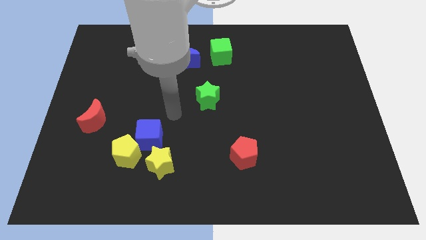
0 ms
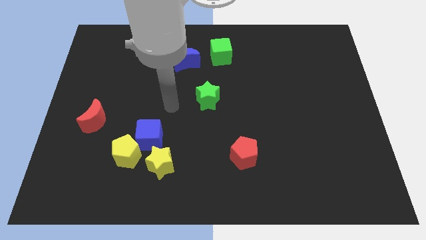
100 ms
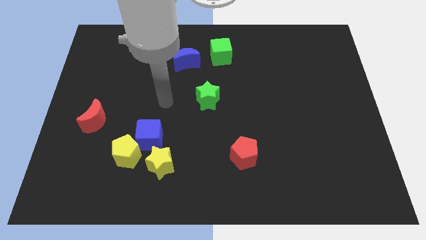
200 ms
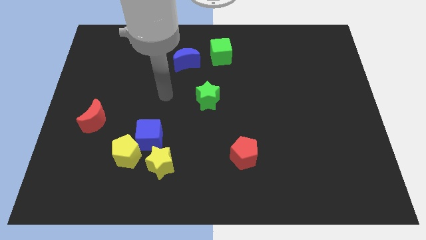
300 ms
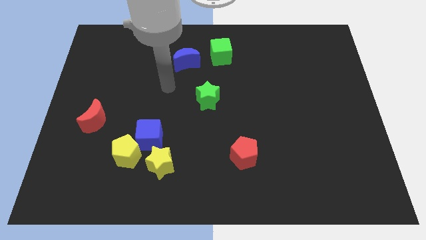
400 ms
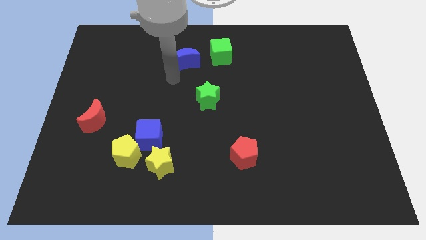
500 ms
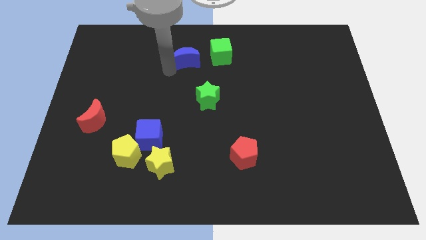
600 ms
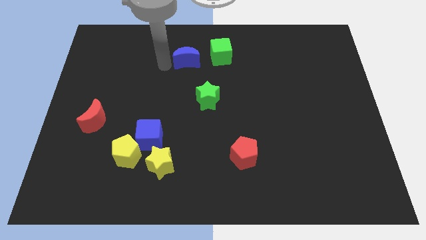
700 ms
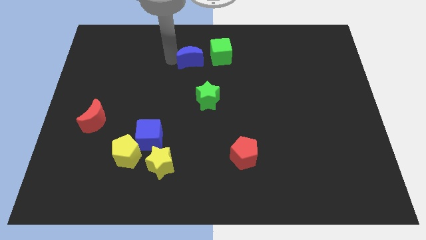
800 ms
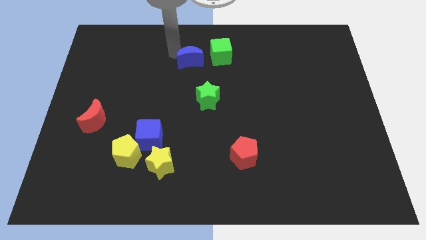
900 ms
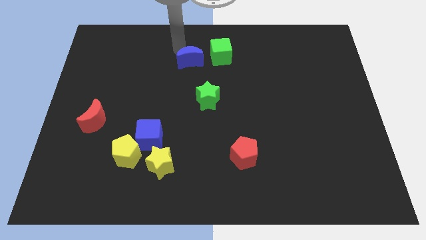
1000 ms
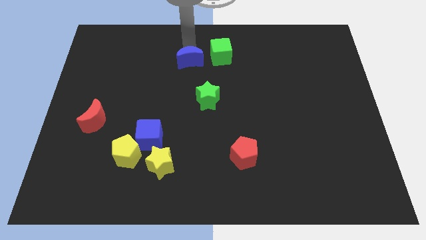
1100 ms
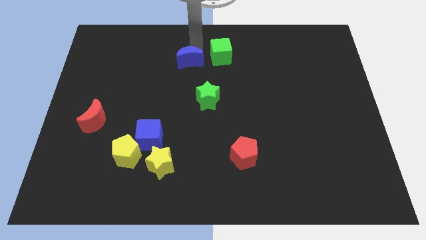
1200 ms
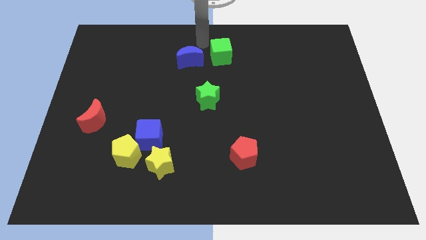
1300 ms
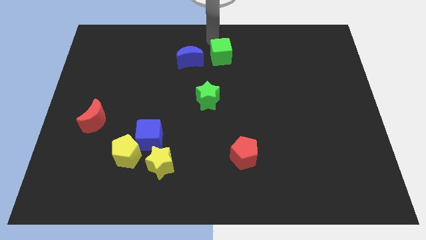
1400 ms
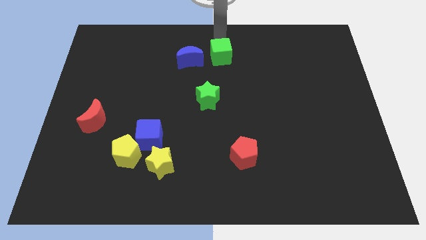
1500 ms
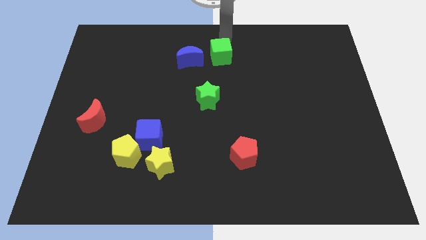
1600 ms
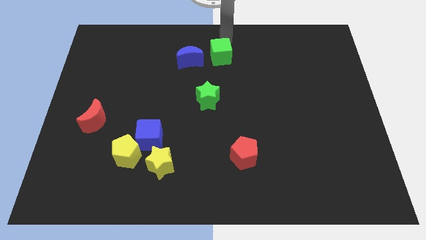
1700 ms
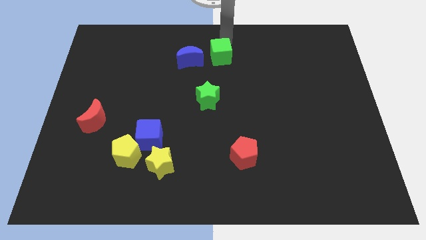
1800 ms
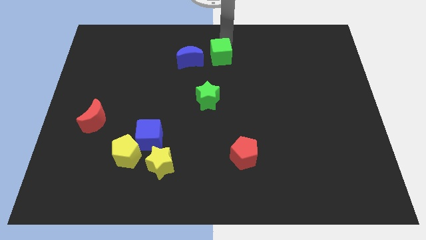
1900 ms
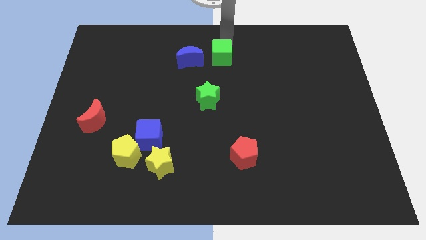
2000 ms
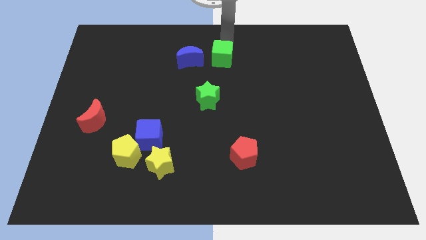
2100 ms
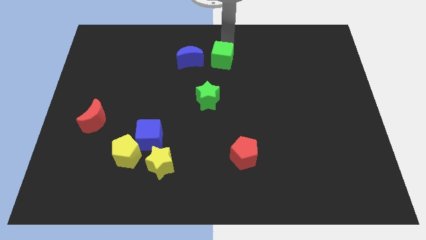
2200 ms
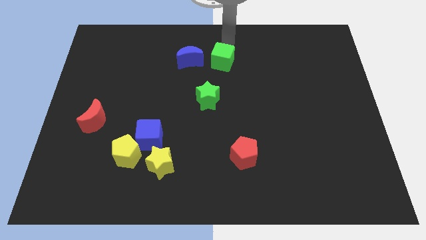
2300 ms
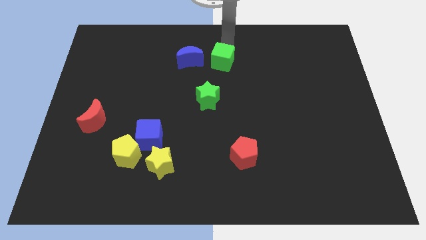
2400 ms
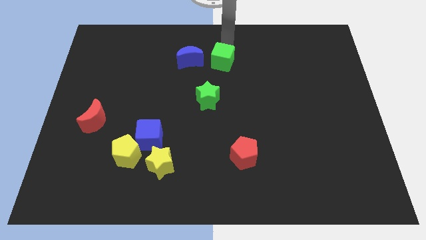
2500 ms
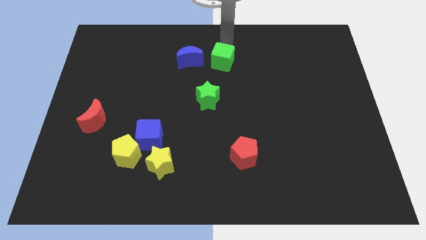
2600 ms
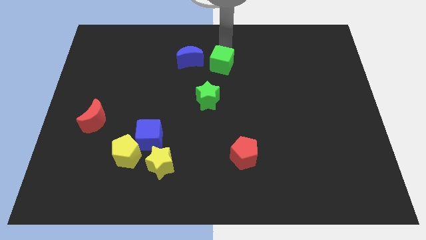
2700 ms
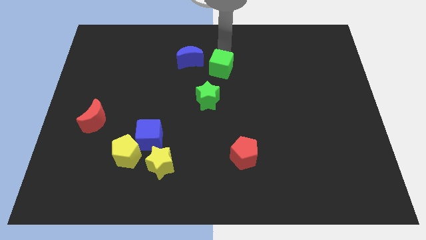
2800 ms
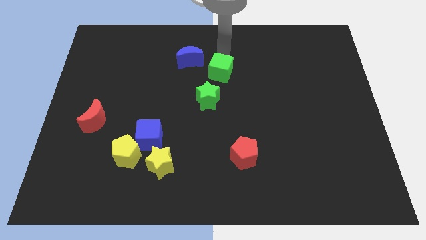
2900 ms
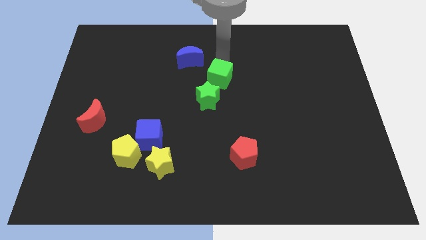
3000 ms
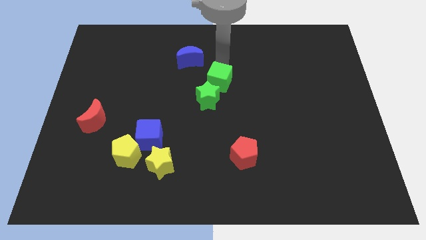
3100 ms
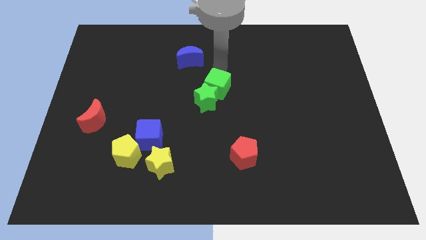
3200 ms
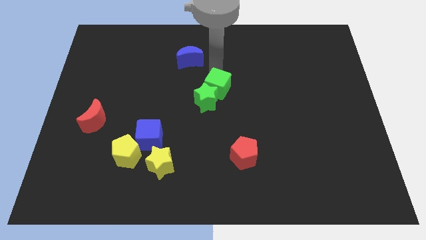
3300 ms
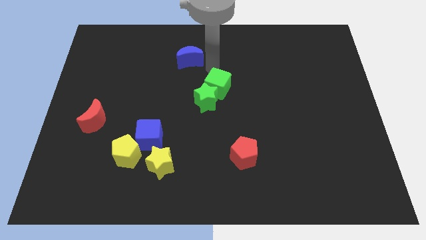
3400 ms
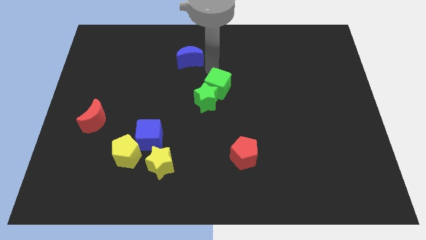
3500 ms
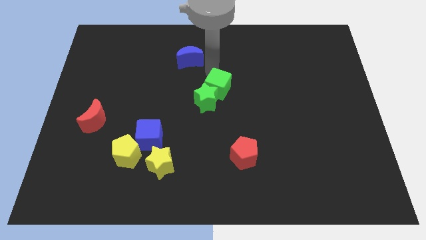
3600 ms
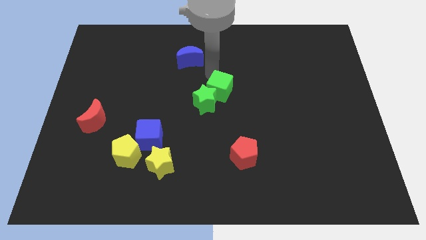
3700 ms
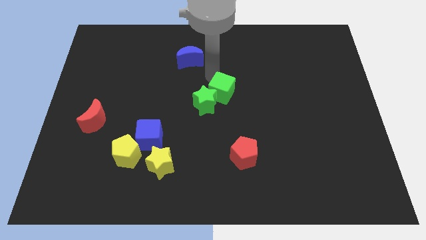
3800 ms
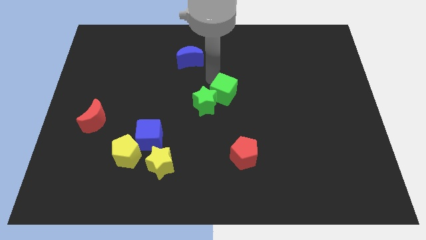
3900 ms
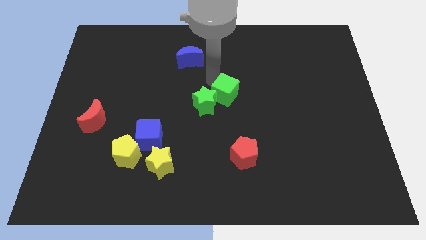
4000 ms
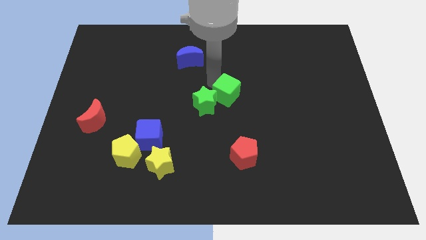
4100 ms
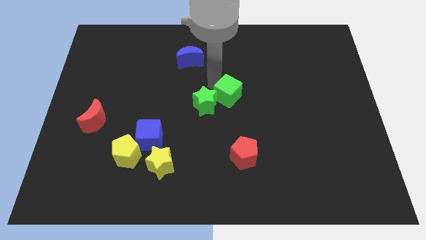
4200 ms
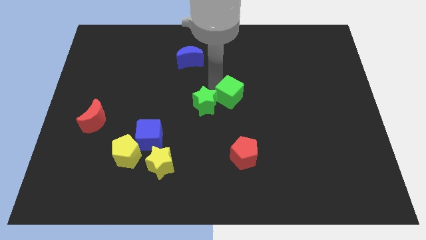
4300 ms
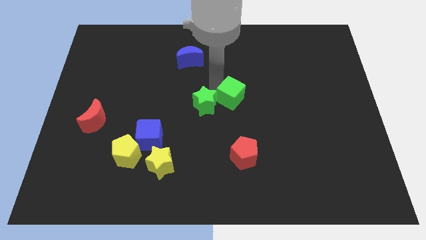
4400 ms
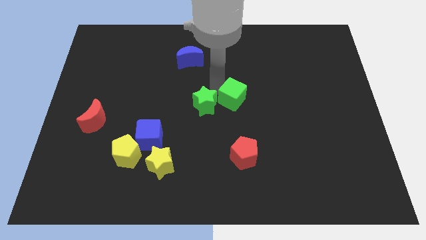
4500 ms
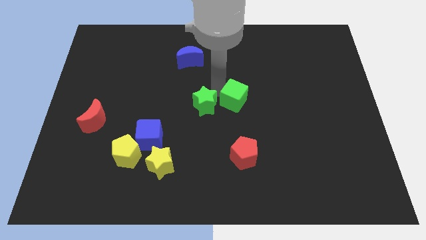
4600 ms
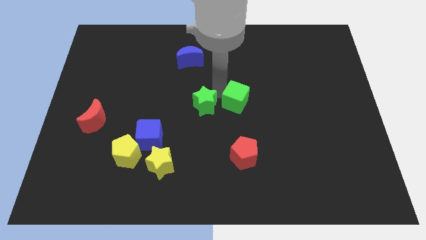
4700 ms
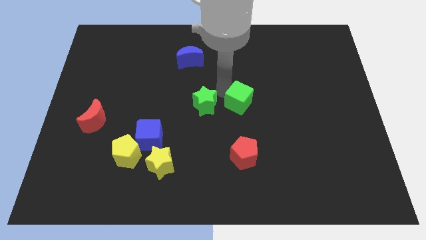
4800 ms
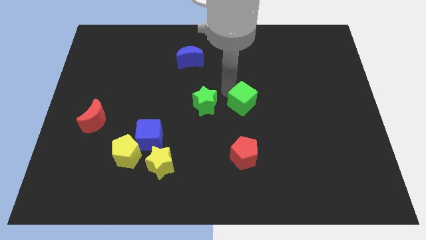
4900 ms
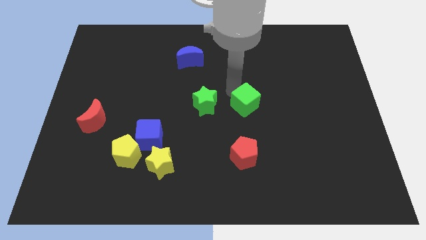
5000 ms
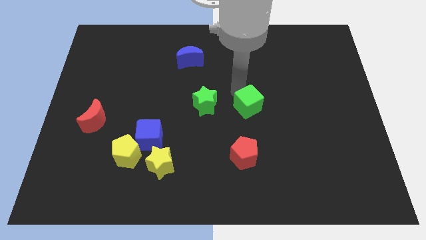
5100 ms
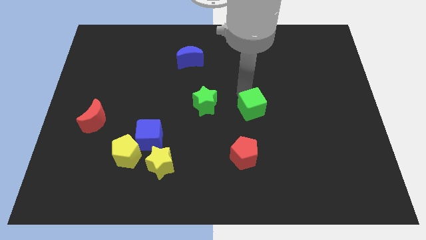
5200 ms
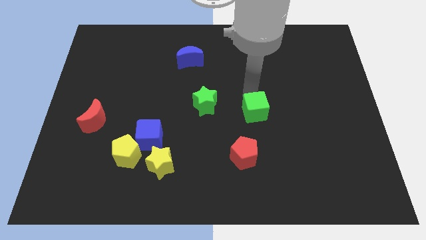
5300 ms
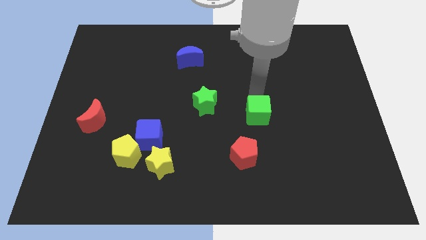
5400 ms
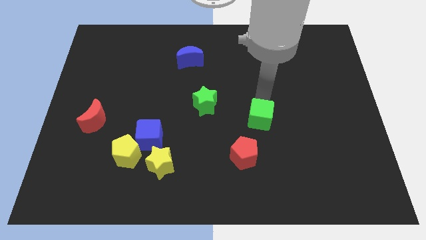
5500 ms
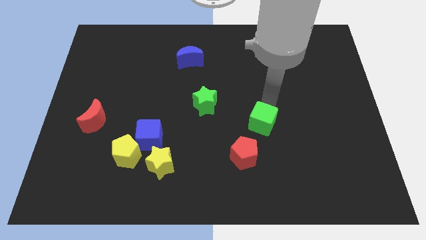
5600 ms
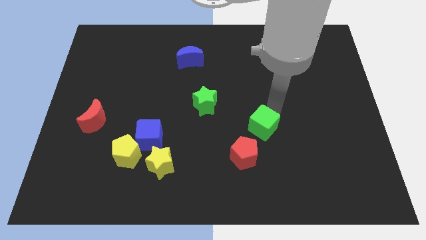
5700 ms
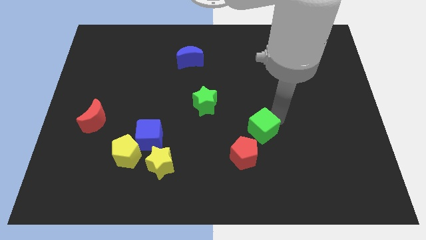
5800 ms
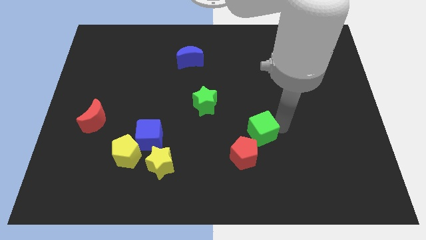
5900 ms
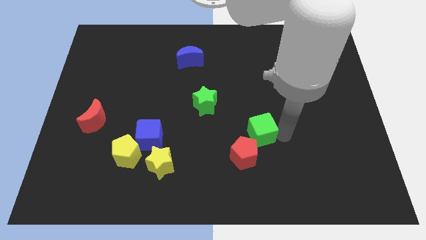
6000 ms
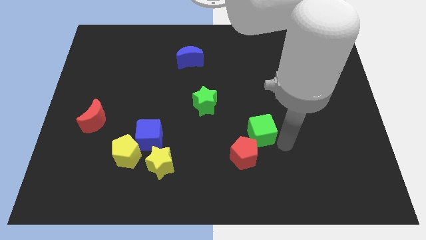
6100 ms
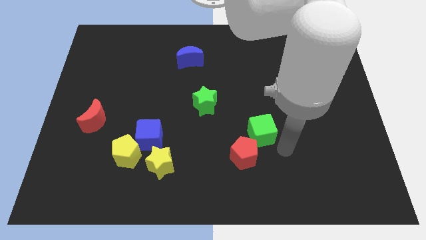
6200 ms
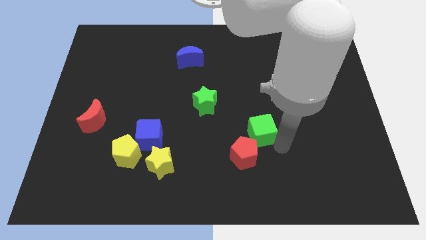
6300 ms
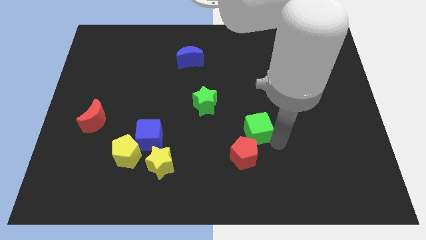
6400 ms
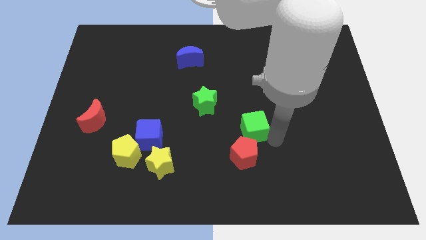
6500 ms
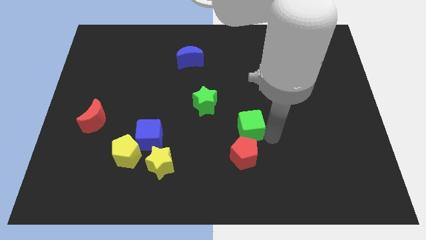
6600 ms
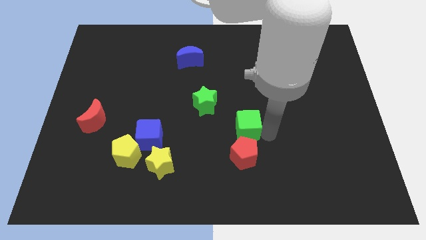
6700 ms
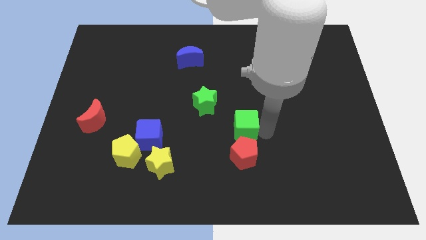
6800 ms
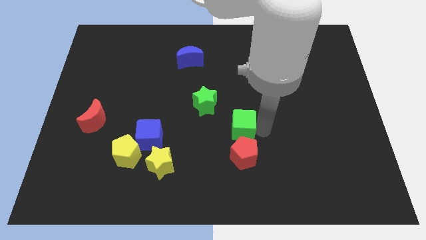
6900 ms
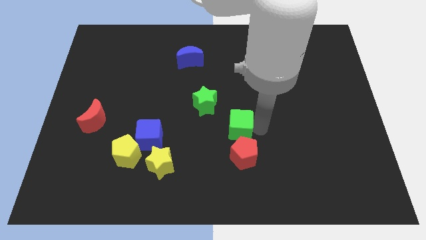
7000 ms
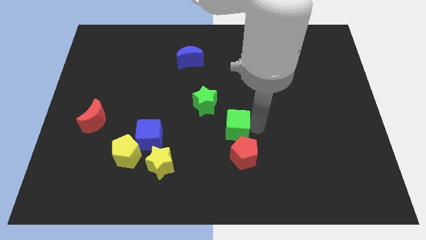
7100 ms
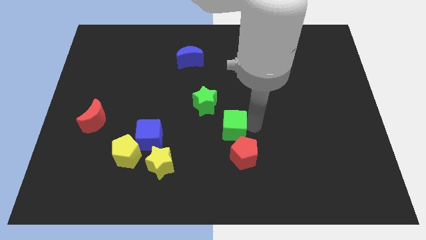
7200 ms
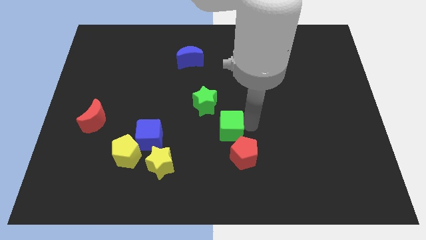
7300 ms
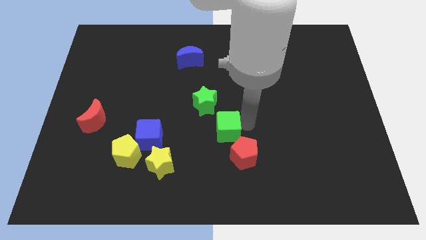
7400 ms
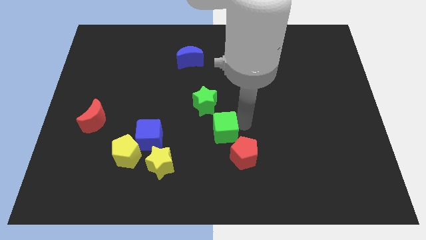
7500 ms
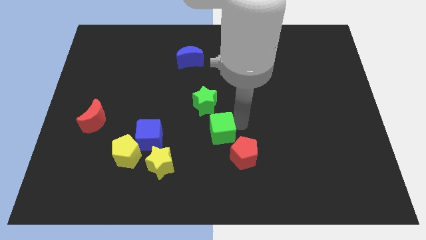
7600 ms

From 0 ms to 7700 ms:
put the green cube just right of the blue cube

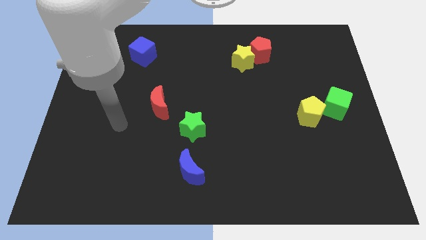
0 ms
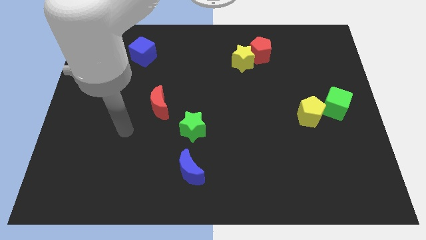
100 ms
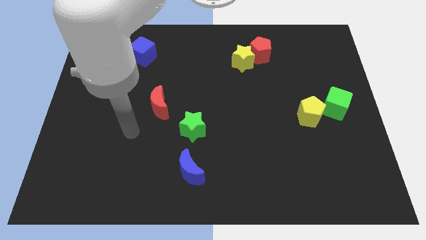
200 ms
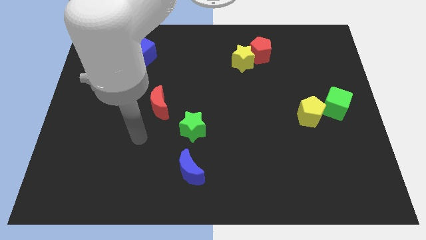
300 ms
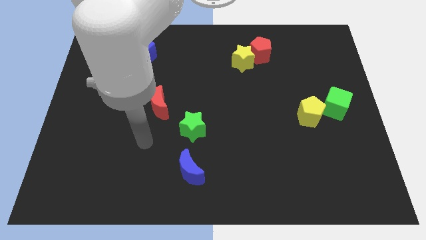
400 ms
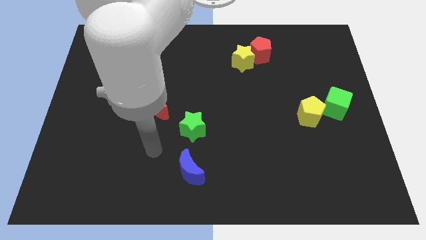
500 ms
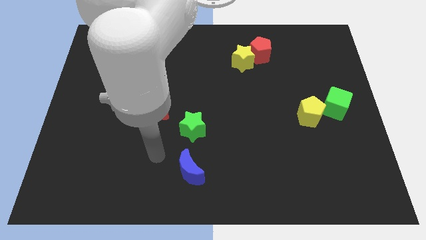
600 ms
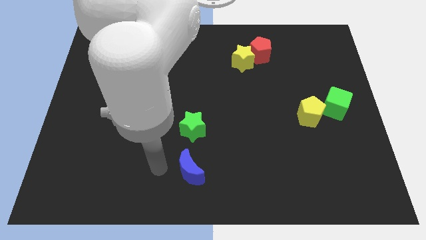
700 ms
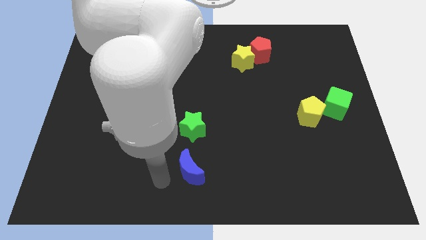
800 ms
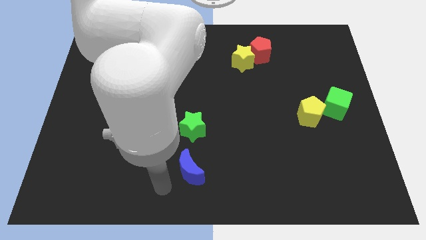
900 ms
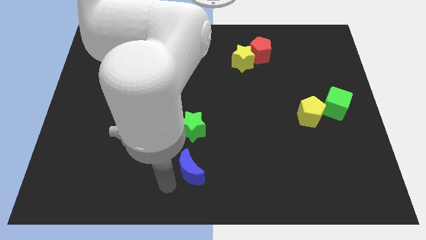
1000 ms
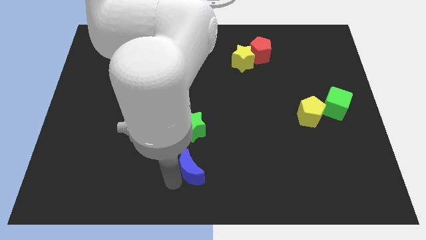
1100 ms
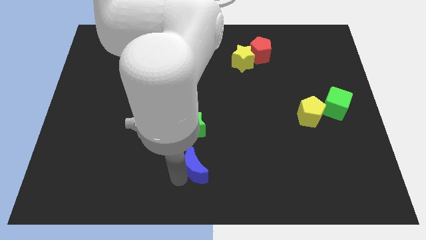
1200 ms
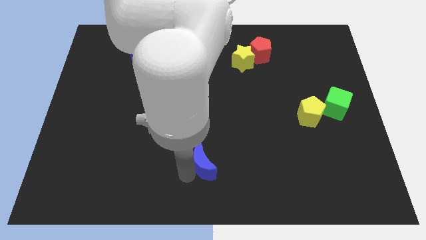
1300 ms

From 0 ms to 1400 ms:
push the blue moon to the bottom right of the green star

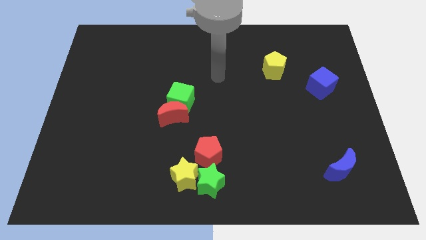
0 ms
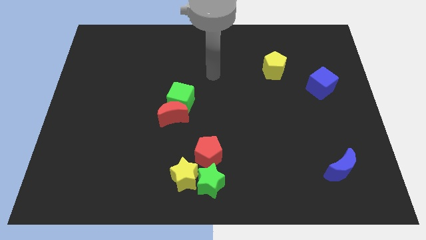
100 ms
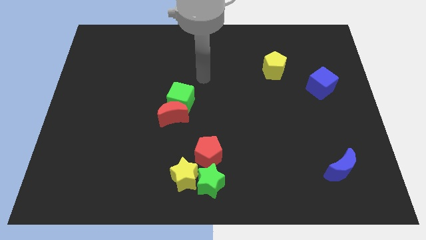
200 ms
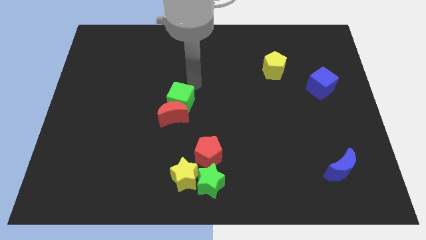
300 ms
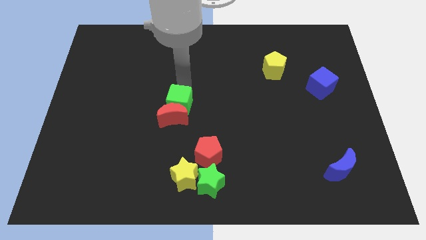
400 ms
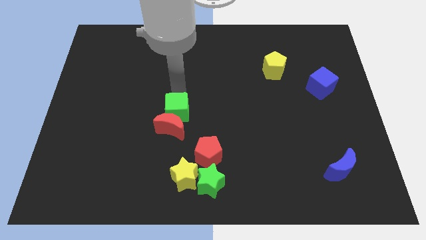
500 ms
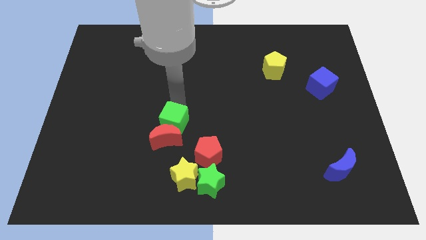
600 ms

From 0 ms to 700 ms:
move the red moon to the left of the red pentagon
